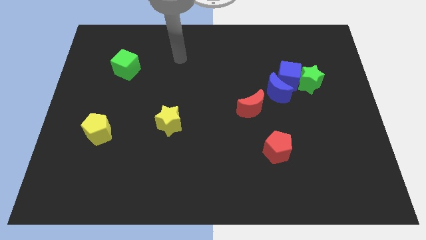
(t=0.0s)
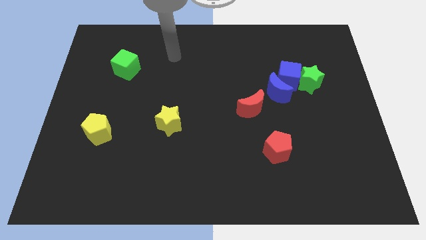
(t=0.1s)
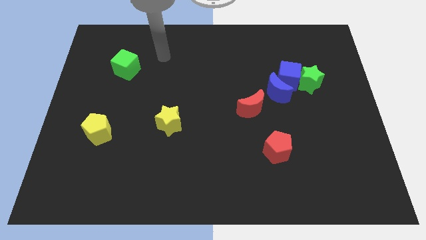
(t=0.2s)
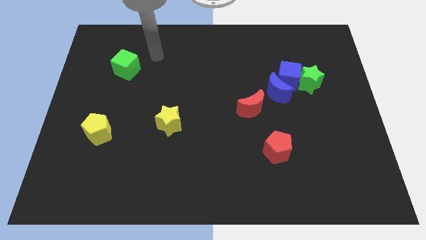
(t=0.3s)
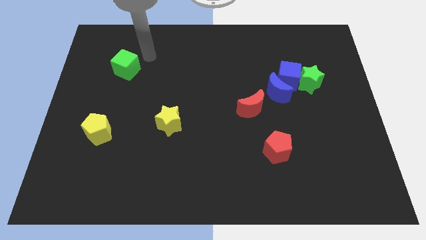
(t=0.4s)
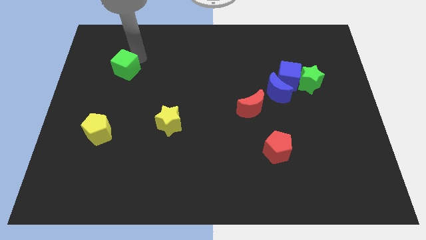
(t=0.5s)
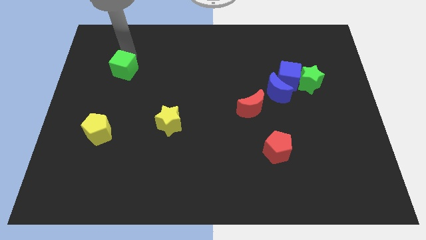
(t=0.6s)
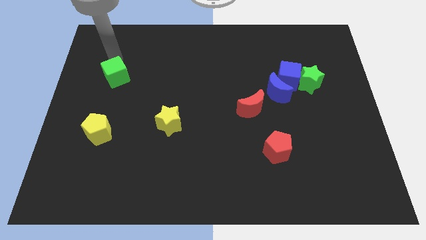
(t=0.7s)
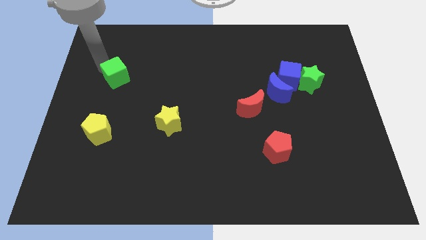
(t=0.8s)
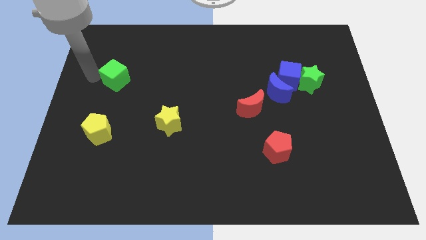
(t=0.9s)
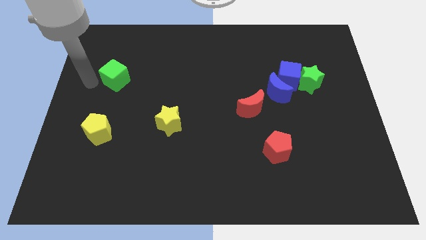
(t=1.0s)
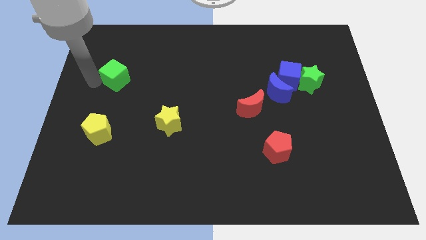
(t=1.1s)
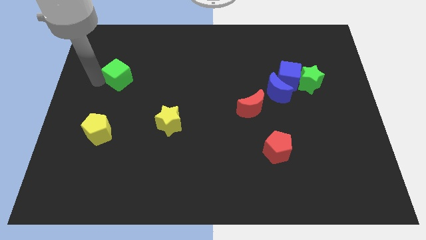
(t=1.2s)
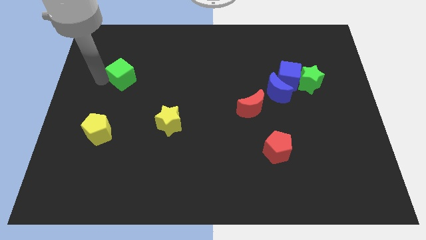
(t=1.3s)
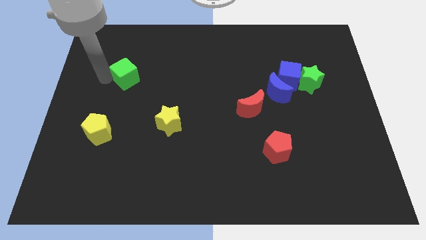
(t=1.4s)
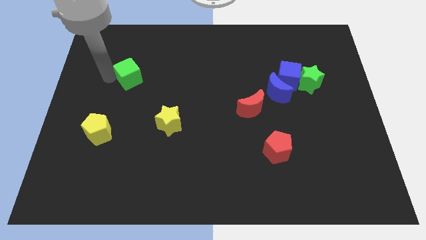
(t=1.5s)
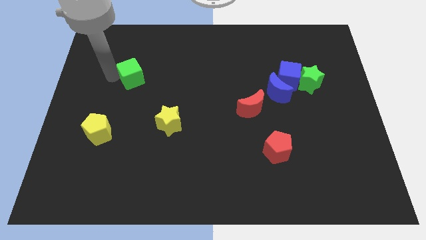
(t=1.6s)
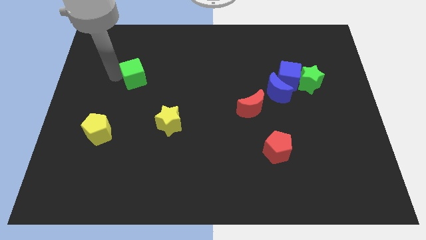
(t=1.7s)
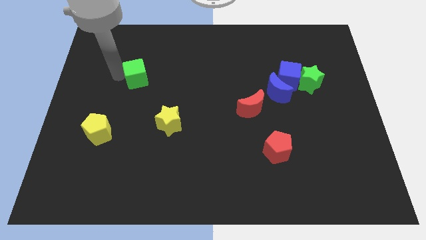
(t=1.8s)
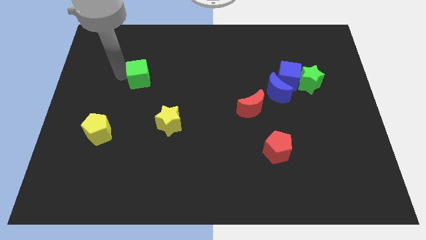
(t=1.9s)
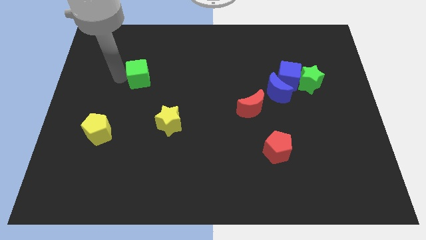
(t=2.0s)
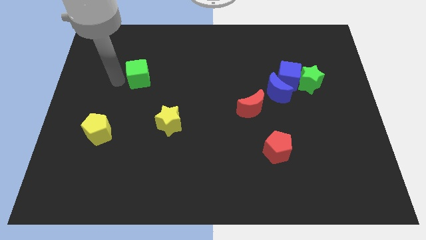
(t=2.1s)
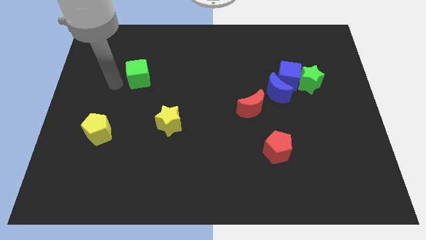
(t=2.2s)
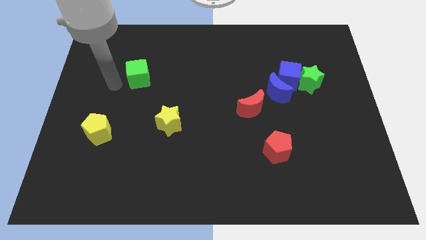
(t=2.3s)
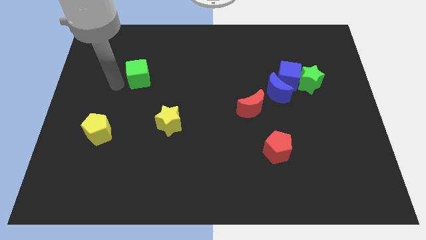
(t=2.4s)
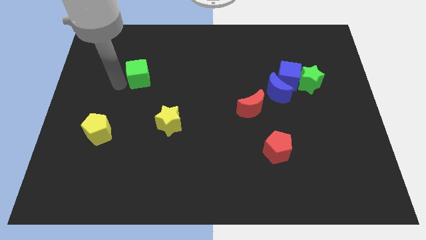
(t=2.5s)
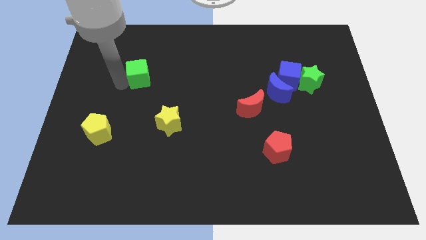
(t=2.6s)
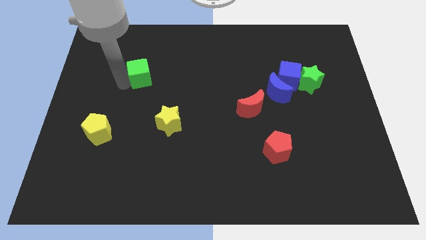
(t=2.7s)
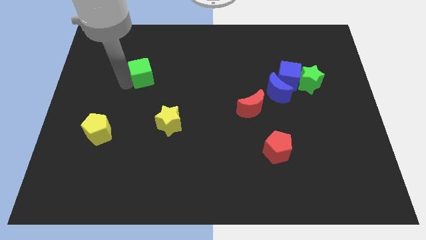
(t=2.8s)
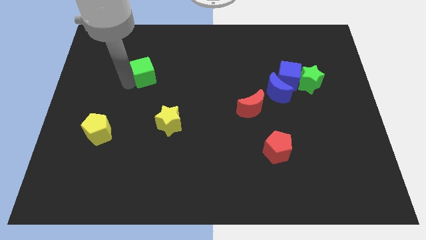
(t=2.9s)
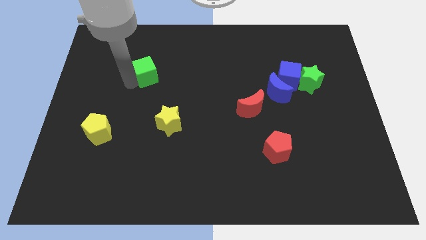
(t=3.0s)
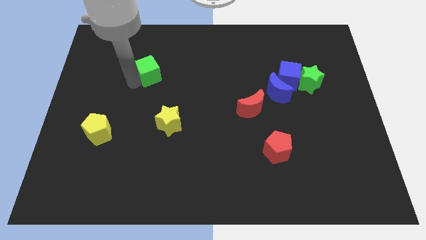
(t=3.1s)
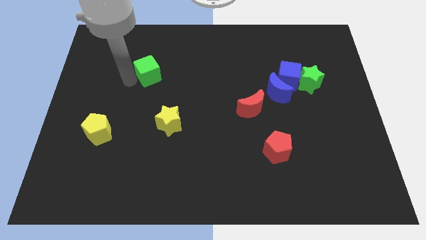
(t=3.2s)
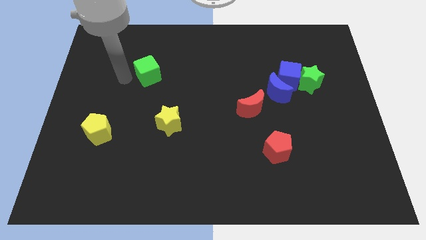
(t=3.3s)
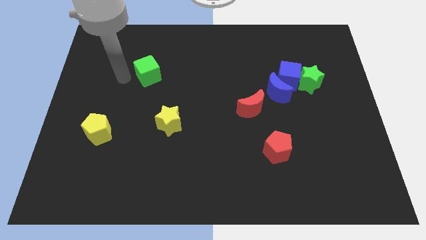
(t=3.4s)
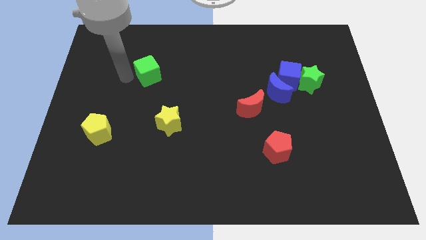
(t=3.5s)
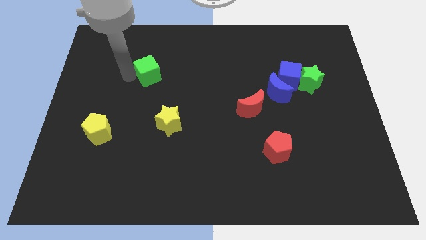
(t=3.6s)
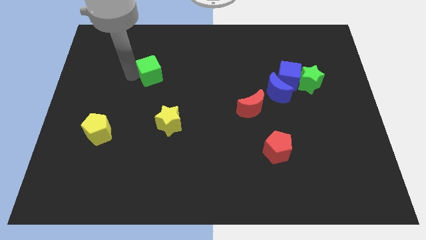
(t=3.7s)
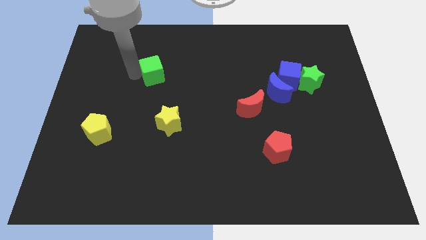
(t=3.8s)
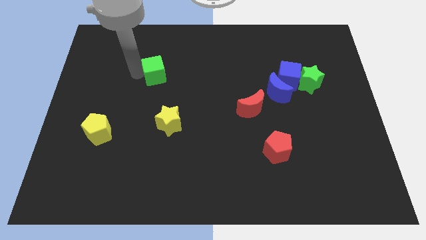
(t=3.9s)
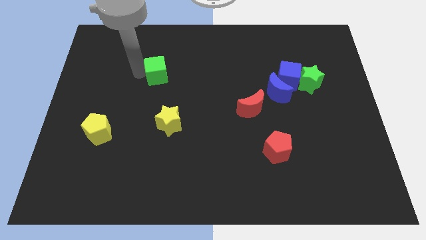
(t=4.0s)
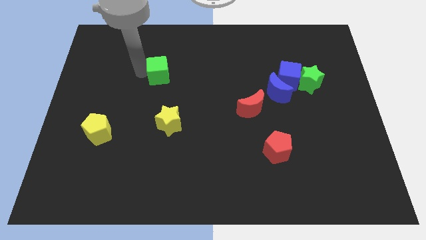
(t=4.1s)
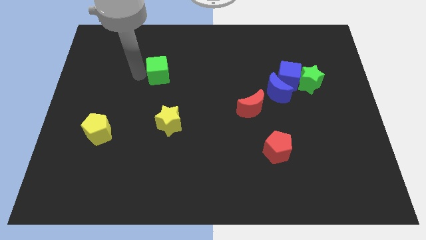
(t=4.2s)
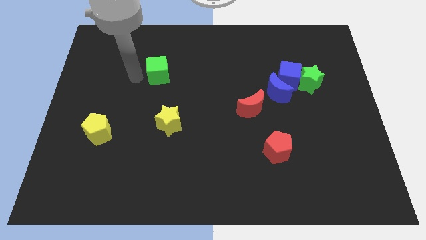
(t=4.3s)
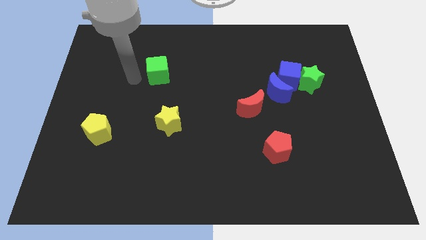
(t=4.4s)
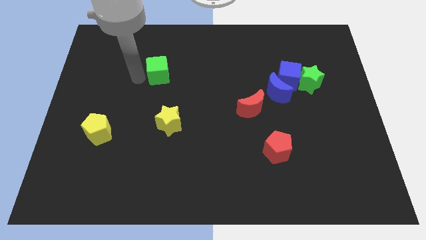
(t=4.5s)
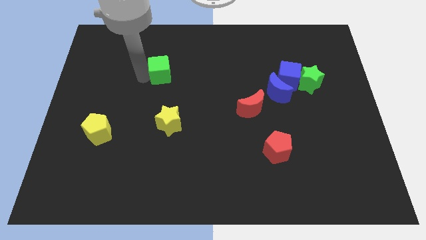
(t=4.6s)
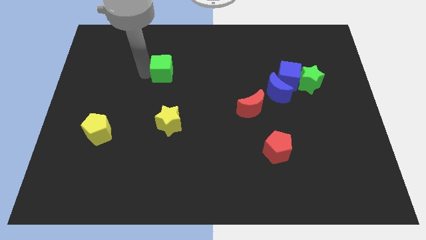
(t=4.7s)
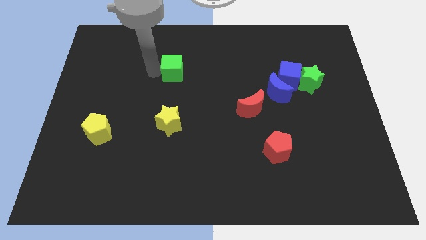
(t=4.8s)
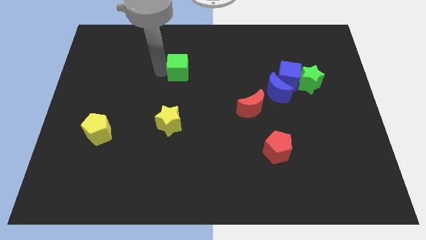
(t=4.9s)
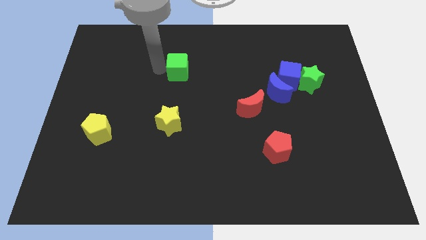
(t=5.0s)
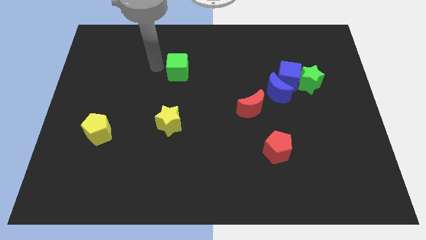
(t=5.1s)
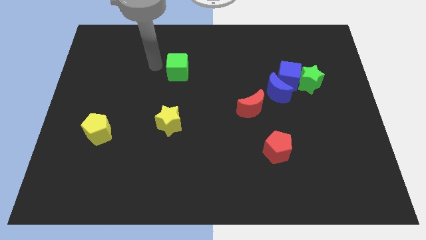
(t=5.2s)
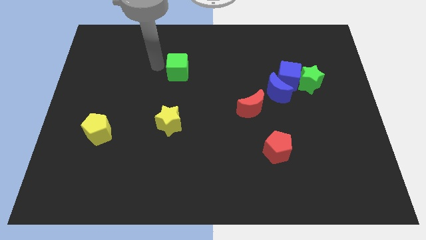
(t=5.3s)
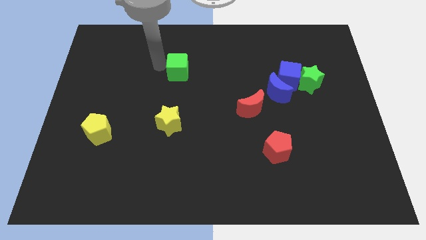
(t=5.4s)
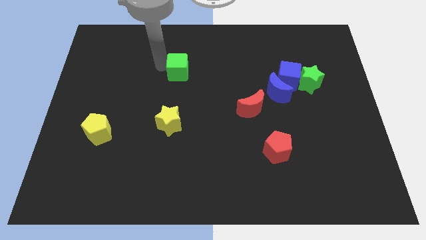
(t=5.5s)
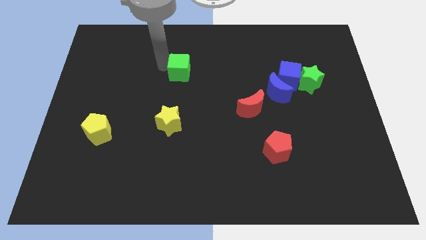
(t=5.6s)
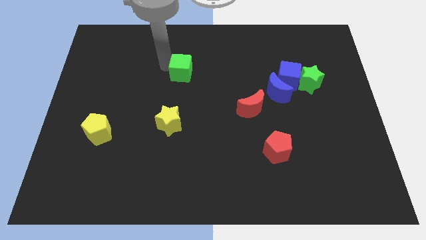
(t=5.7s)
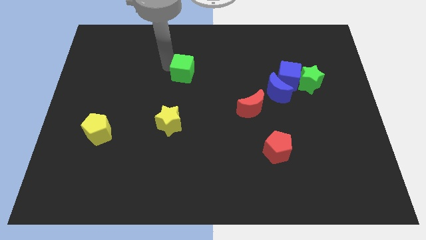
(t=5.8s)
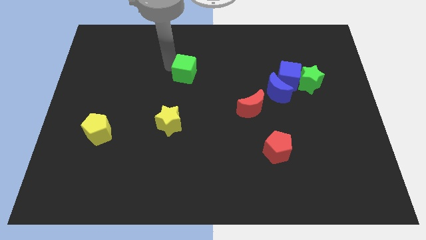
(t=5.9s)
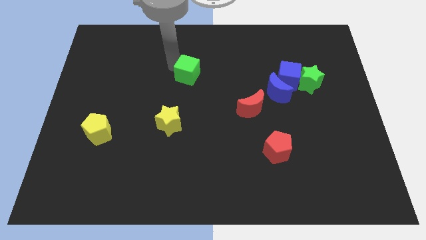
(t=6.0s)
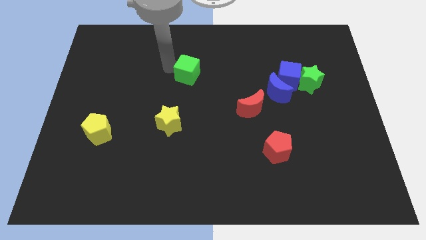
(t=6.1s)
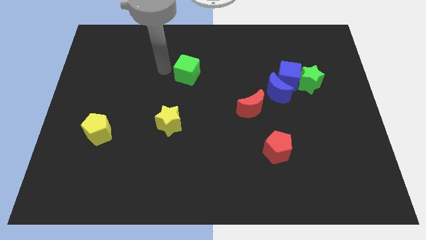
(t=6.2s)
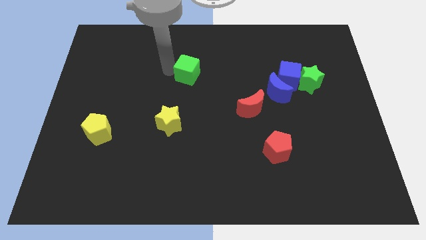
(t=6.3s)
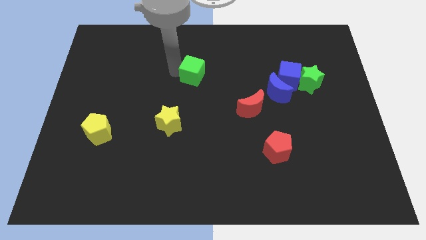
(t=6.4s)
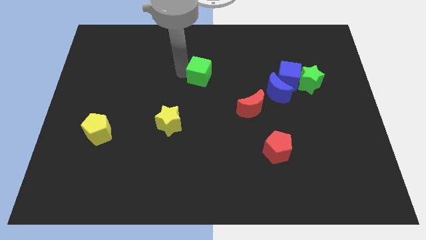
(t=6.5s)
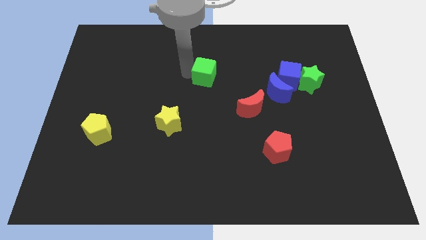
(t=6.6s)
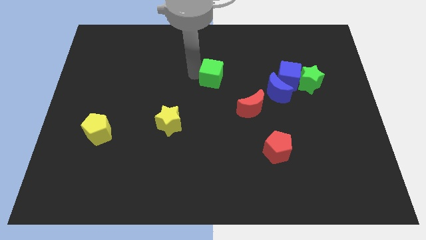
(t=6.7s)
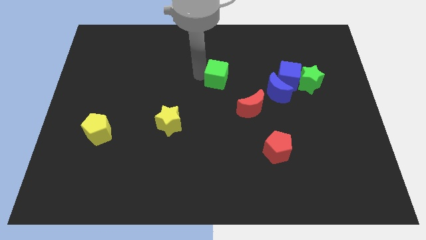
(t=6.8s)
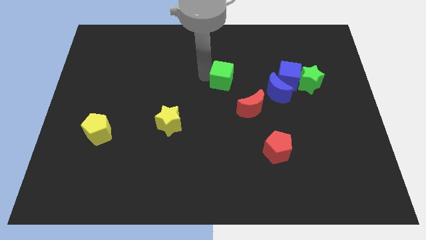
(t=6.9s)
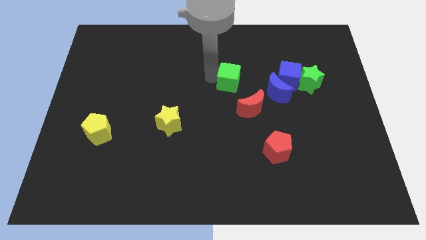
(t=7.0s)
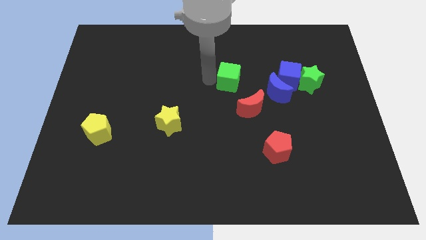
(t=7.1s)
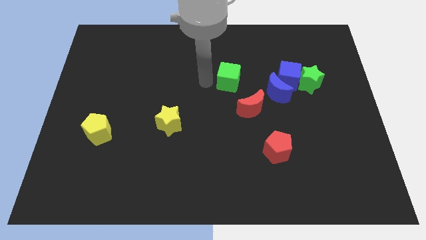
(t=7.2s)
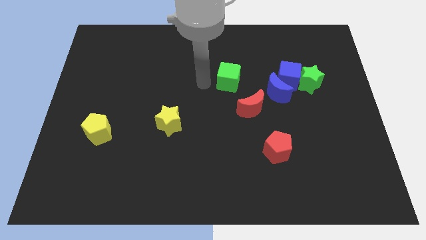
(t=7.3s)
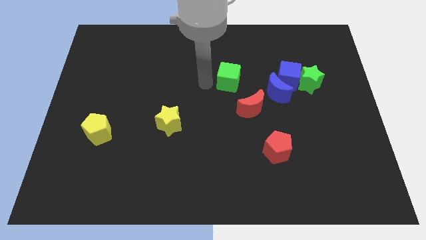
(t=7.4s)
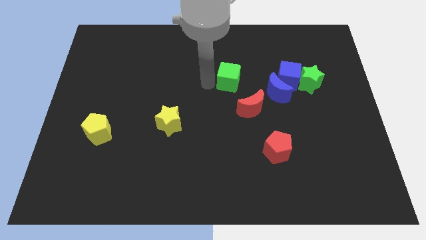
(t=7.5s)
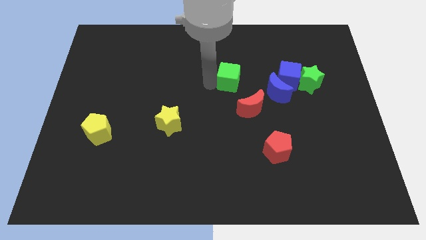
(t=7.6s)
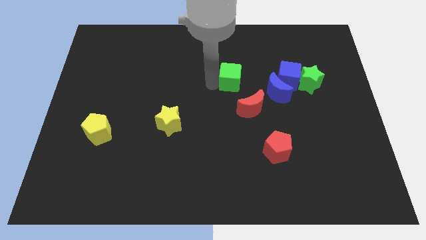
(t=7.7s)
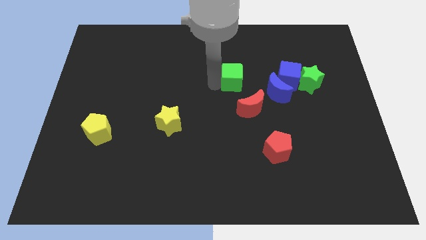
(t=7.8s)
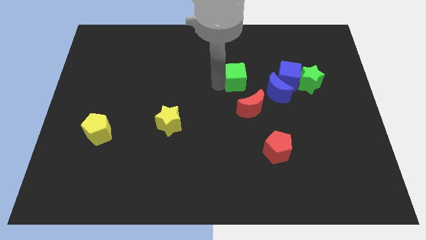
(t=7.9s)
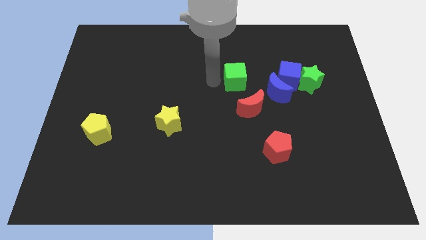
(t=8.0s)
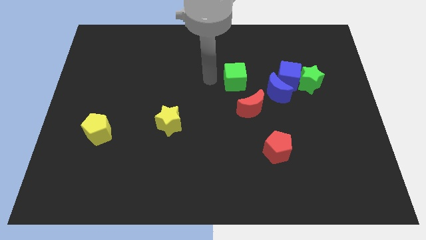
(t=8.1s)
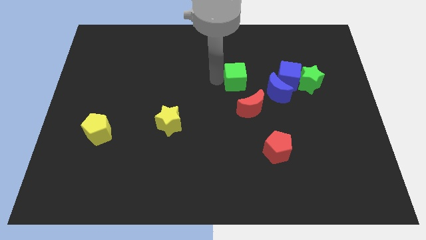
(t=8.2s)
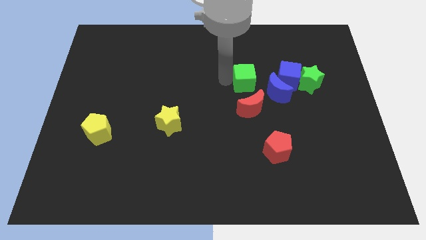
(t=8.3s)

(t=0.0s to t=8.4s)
move the green cube just left of the green star
